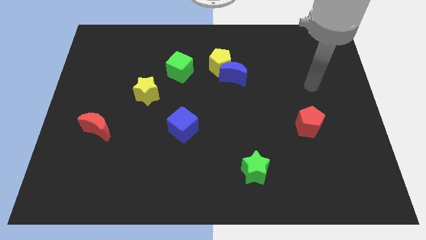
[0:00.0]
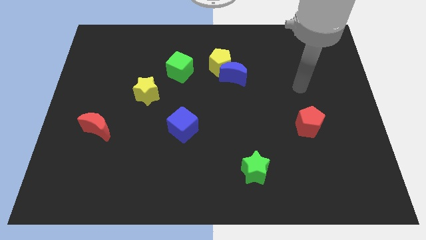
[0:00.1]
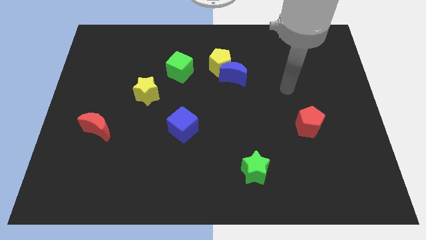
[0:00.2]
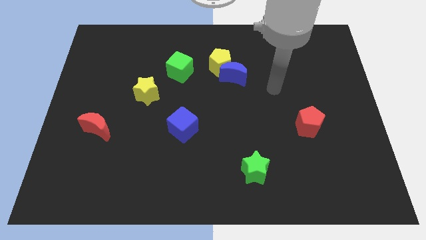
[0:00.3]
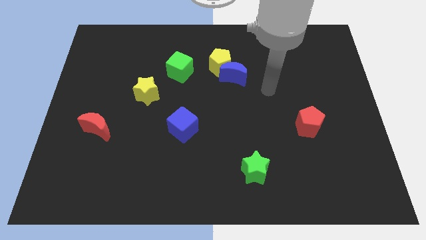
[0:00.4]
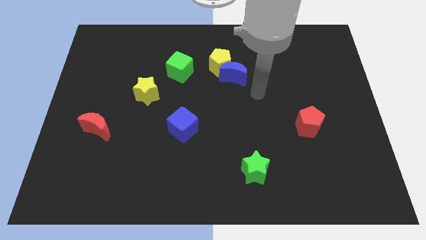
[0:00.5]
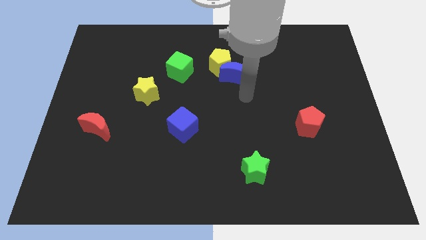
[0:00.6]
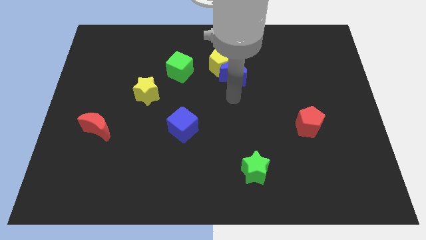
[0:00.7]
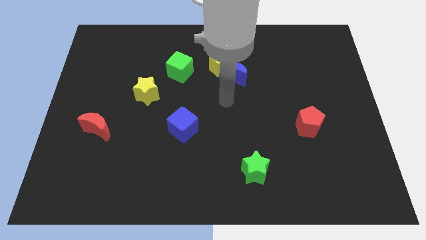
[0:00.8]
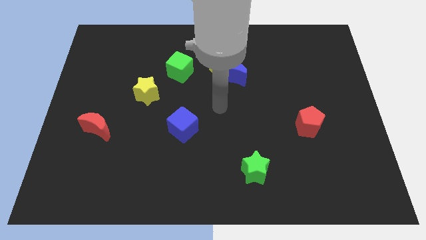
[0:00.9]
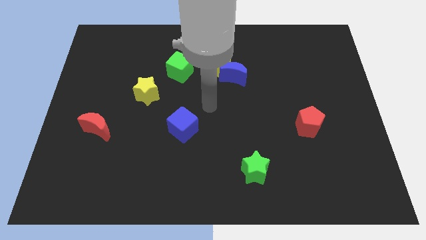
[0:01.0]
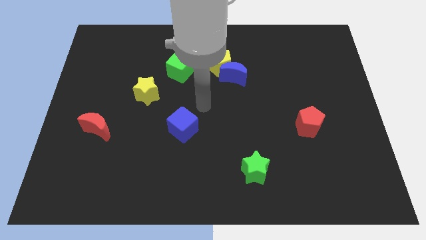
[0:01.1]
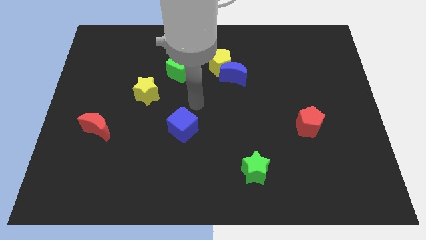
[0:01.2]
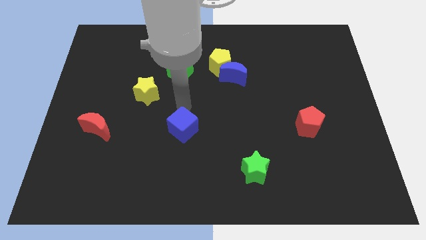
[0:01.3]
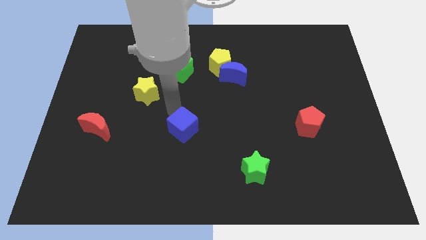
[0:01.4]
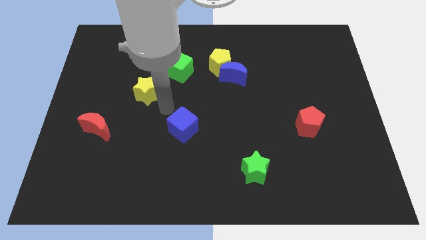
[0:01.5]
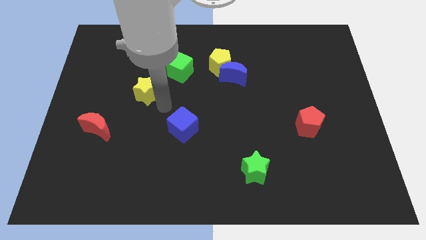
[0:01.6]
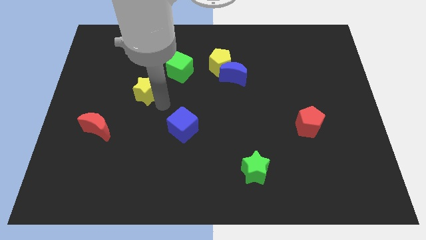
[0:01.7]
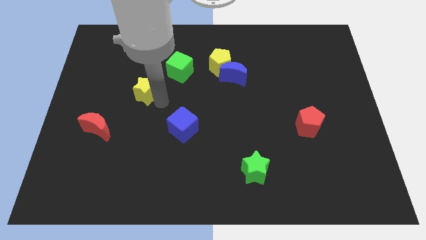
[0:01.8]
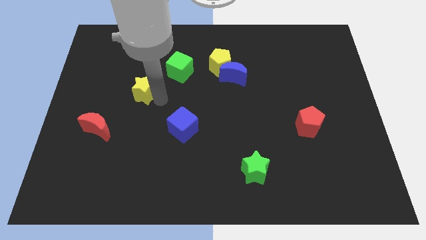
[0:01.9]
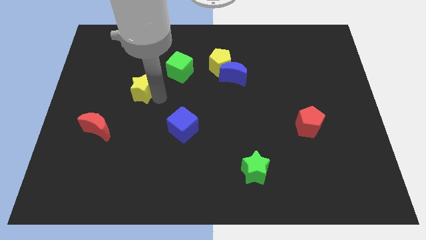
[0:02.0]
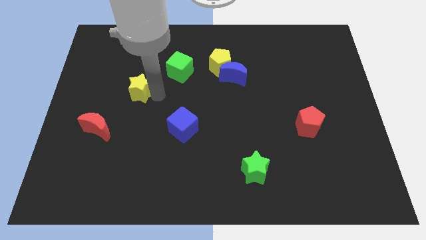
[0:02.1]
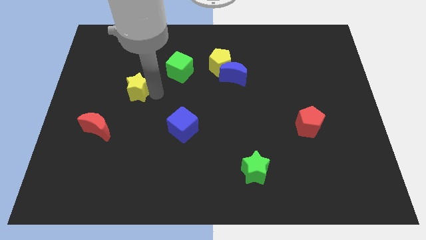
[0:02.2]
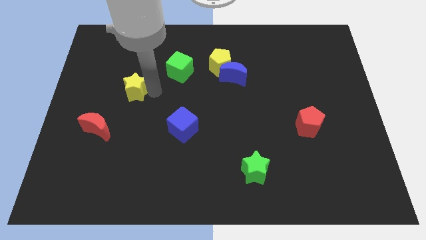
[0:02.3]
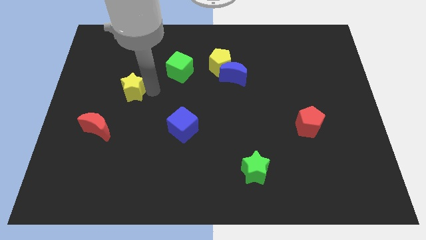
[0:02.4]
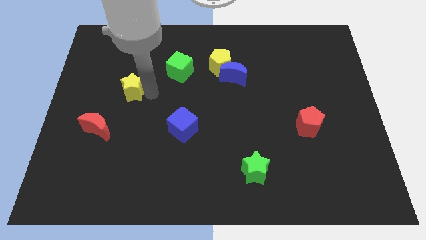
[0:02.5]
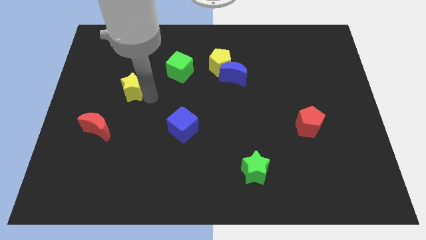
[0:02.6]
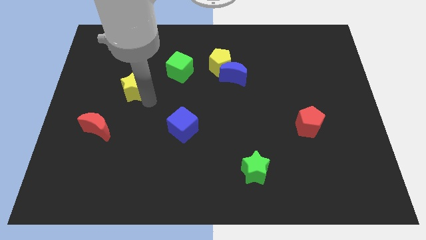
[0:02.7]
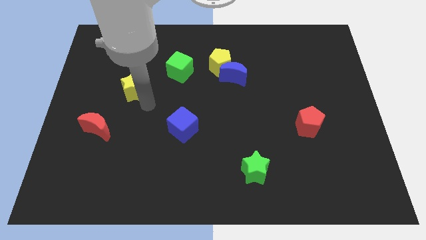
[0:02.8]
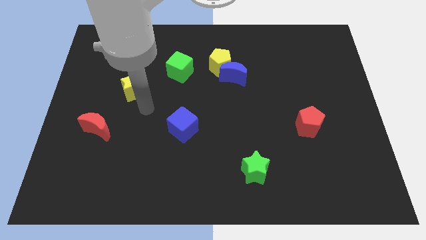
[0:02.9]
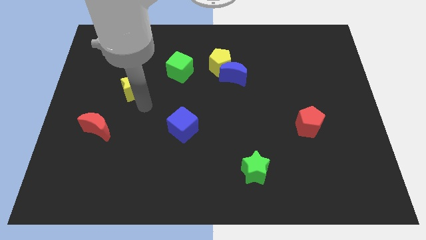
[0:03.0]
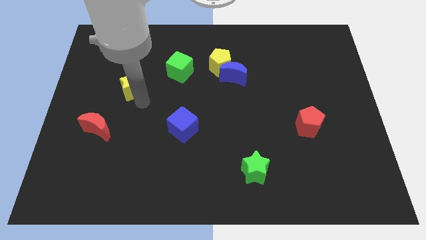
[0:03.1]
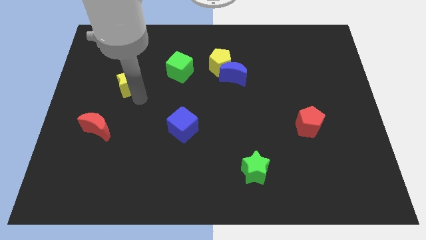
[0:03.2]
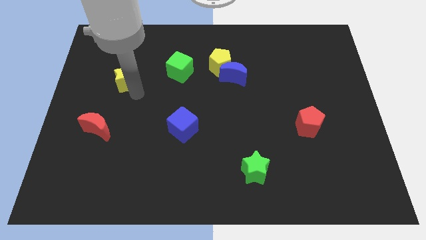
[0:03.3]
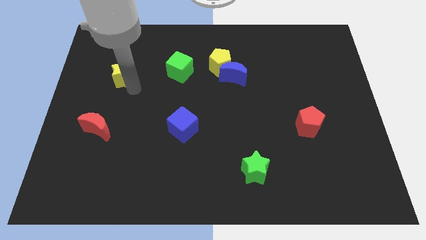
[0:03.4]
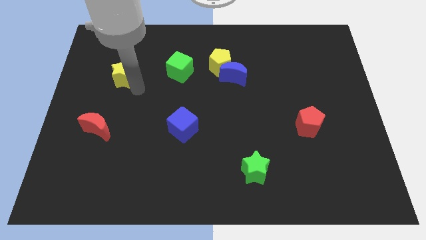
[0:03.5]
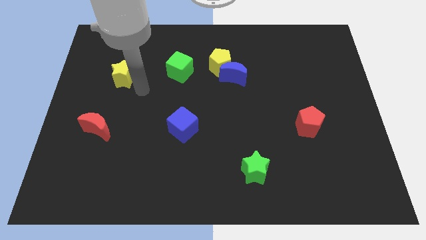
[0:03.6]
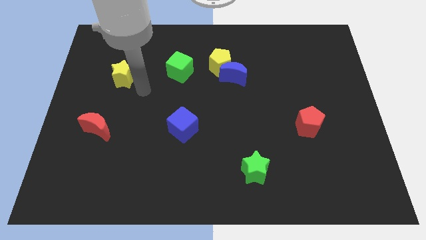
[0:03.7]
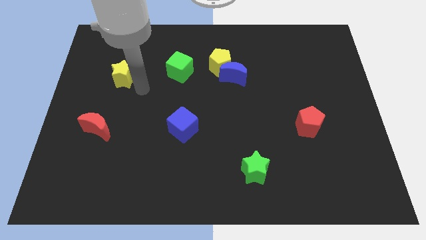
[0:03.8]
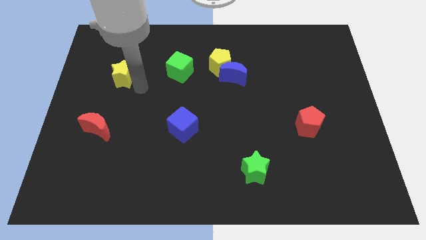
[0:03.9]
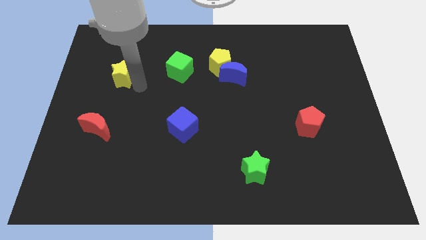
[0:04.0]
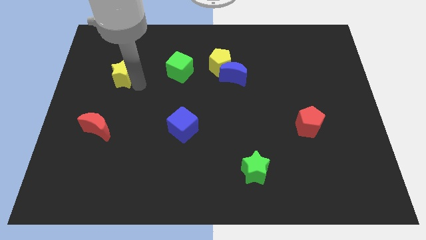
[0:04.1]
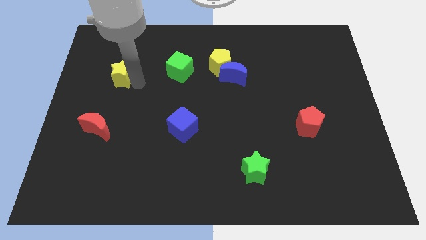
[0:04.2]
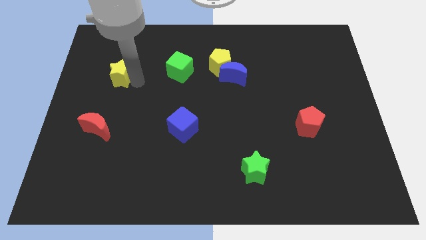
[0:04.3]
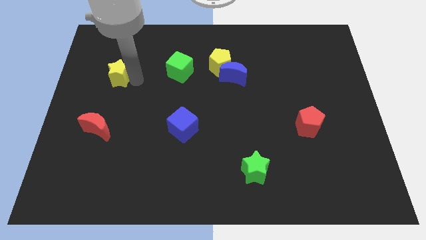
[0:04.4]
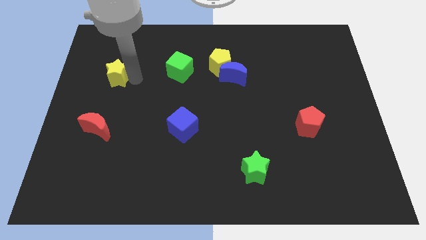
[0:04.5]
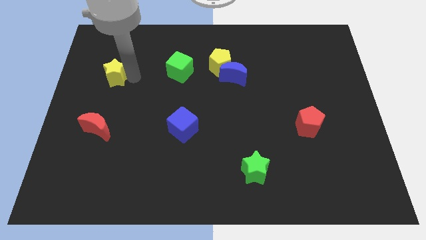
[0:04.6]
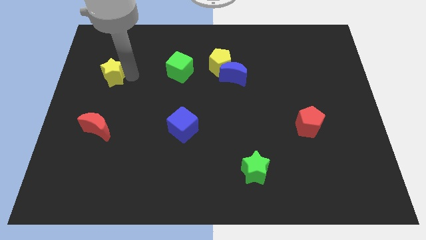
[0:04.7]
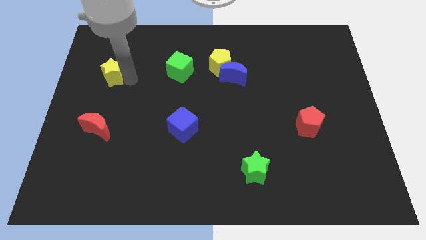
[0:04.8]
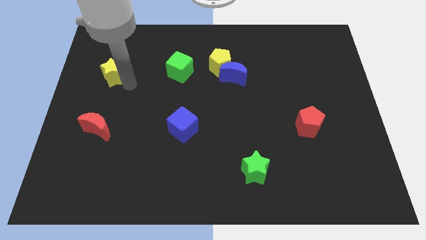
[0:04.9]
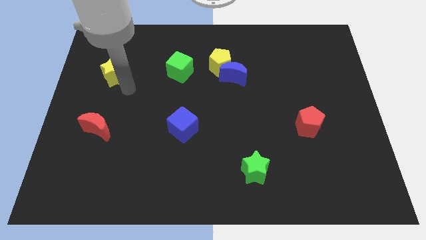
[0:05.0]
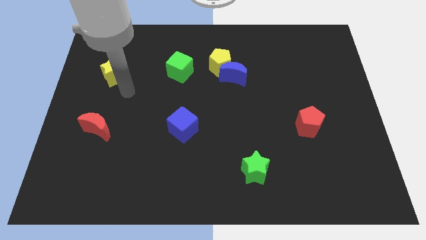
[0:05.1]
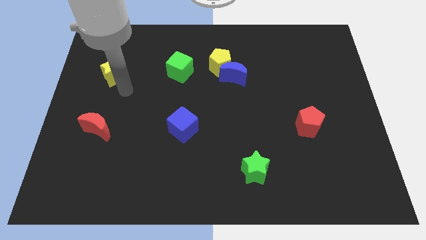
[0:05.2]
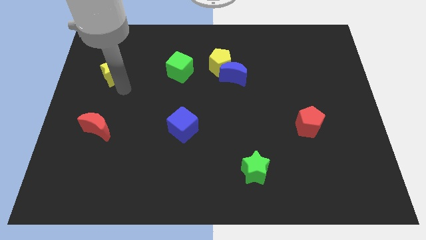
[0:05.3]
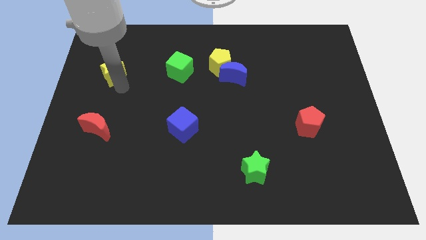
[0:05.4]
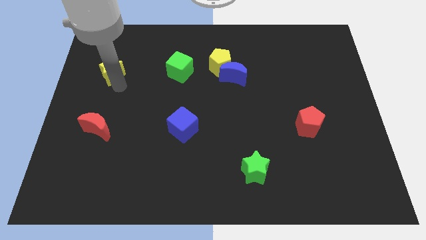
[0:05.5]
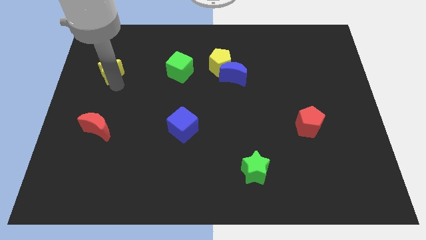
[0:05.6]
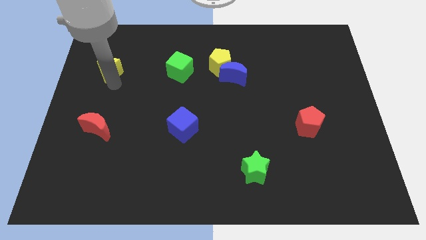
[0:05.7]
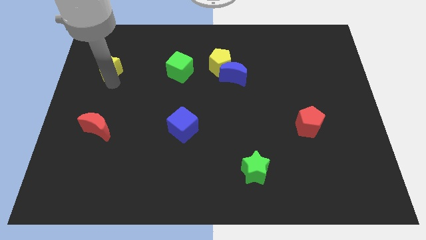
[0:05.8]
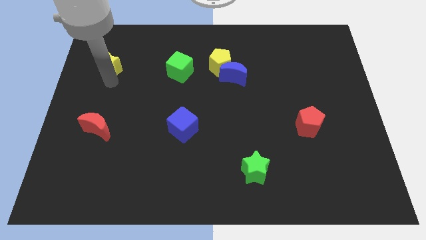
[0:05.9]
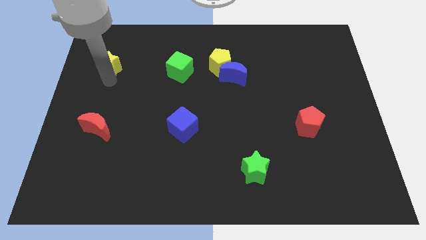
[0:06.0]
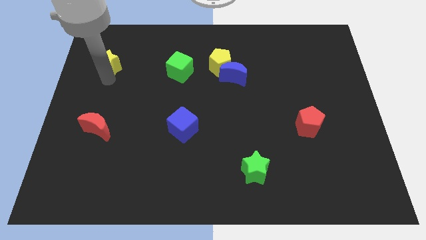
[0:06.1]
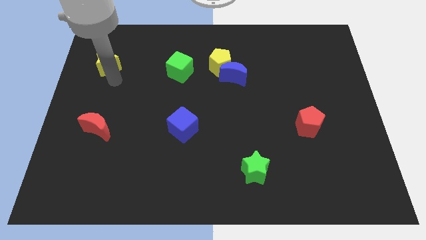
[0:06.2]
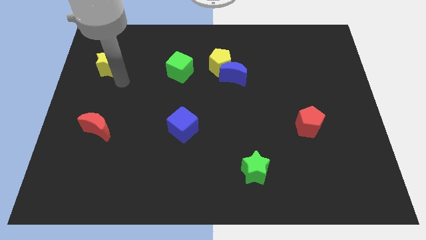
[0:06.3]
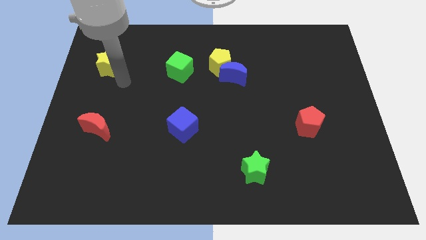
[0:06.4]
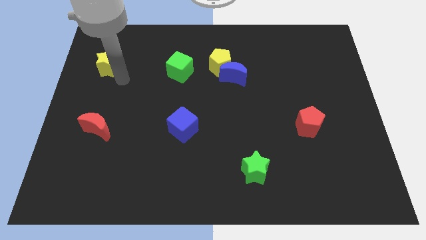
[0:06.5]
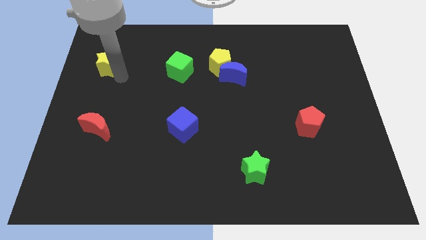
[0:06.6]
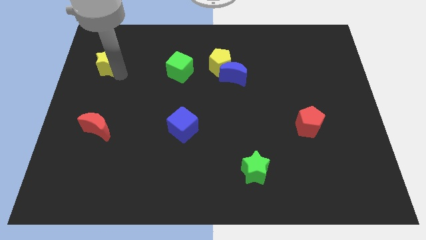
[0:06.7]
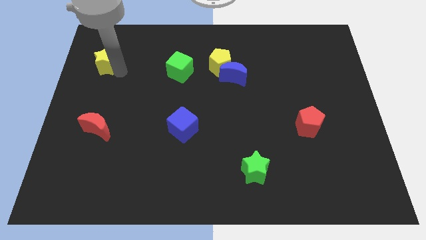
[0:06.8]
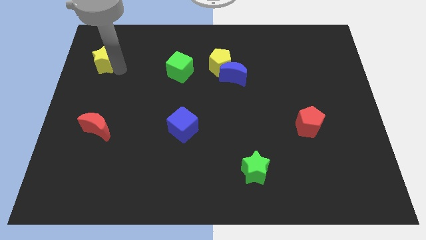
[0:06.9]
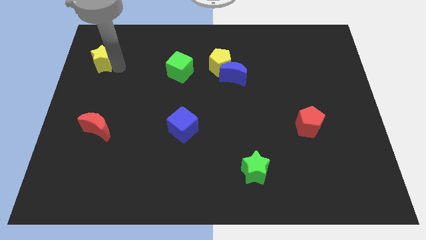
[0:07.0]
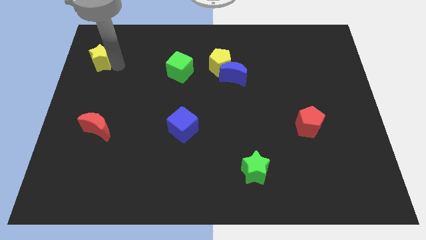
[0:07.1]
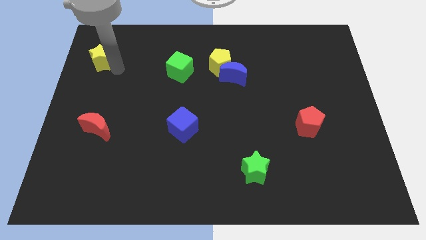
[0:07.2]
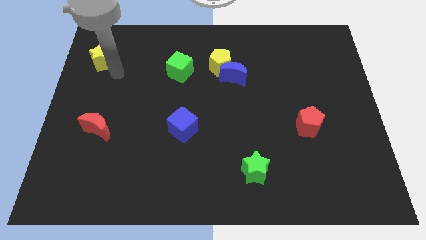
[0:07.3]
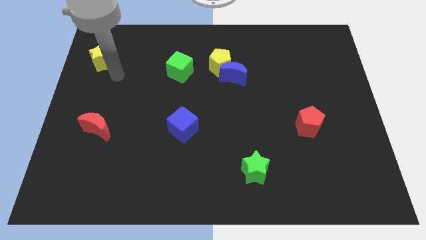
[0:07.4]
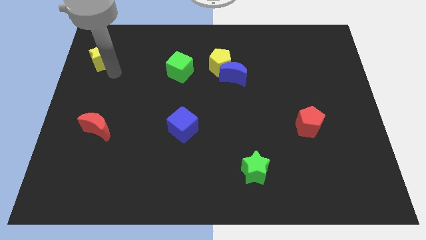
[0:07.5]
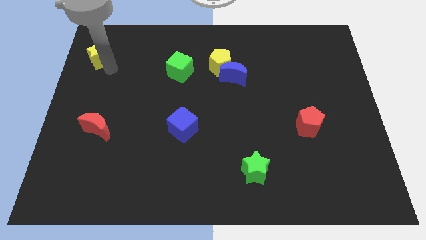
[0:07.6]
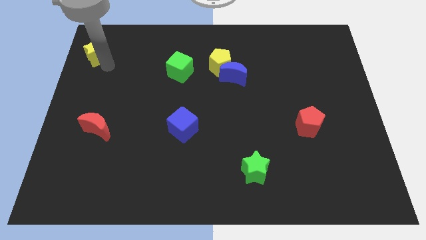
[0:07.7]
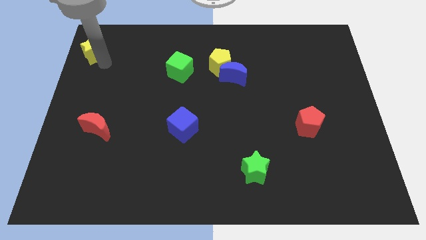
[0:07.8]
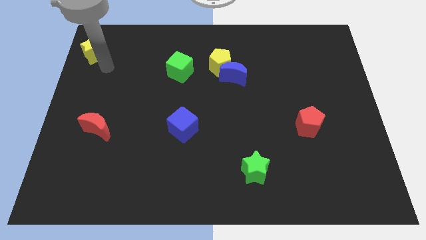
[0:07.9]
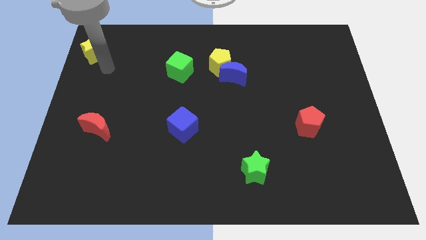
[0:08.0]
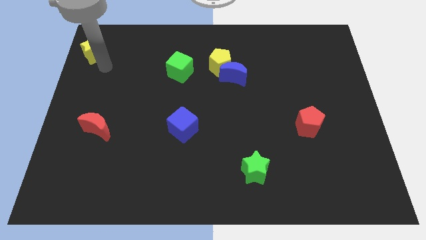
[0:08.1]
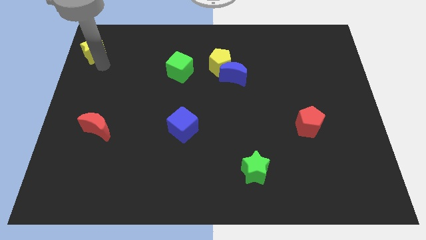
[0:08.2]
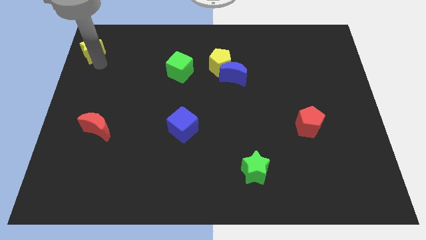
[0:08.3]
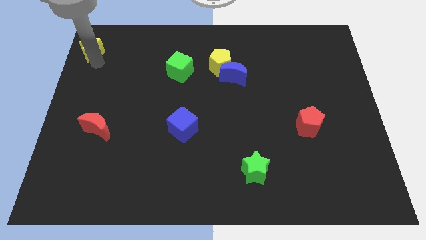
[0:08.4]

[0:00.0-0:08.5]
slide the yellow star to the top left
